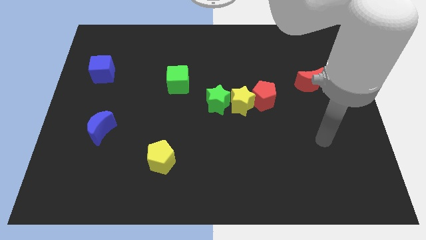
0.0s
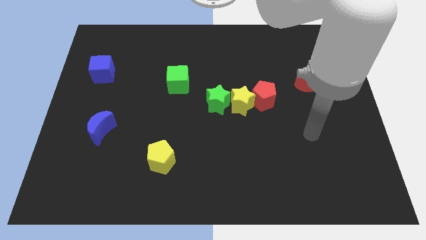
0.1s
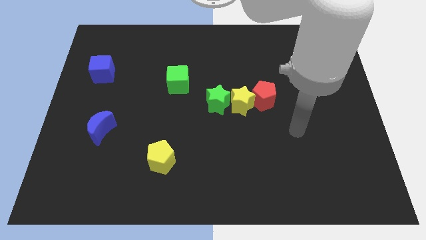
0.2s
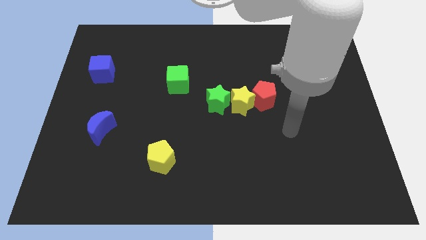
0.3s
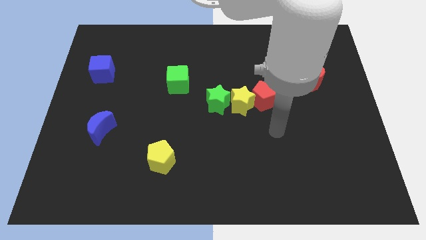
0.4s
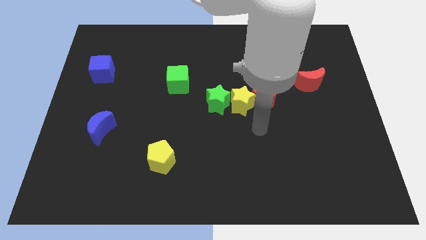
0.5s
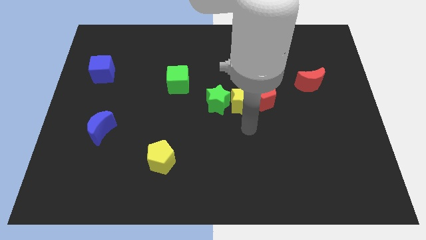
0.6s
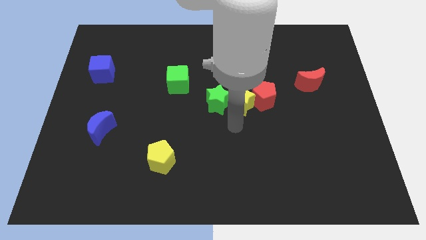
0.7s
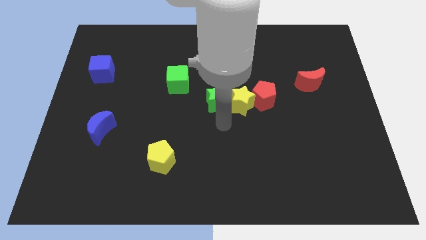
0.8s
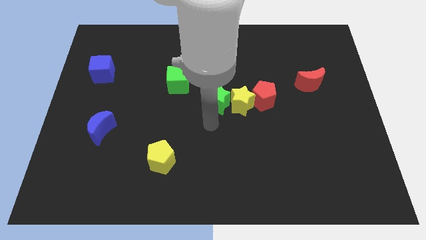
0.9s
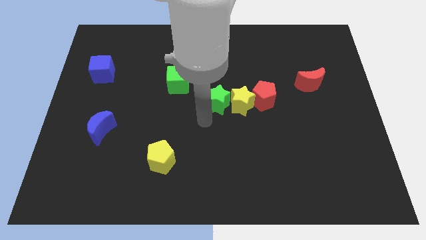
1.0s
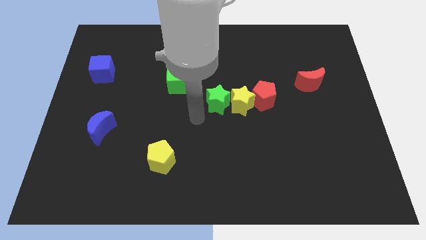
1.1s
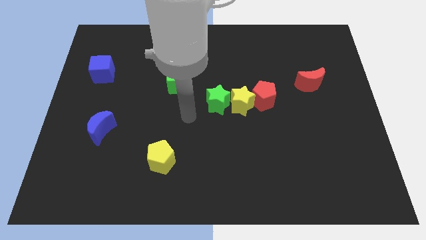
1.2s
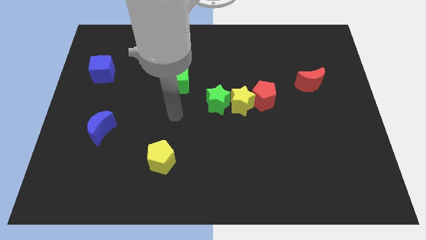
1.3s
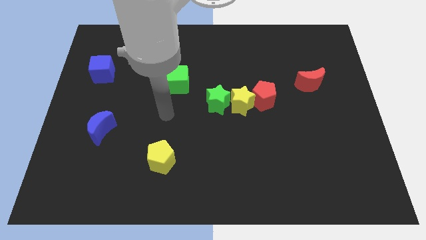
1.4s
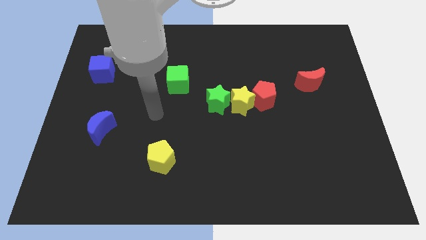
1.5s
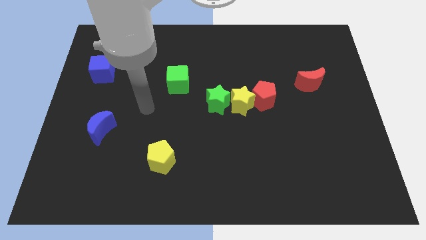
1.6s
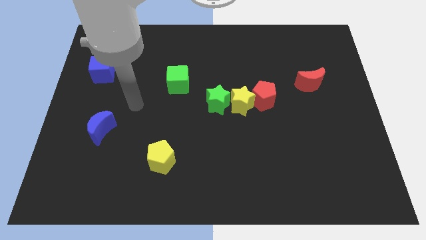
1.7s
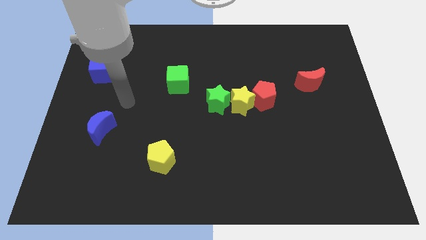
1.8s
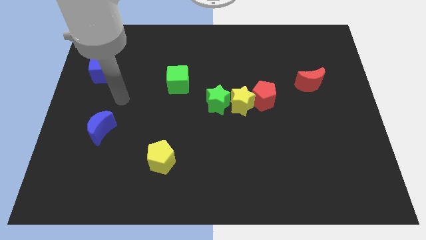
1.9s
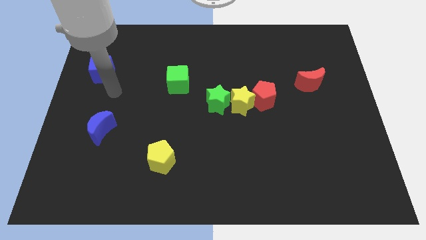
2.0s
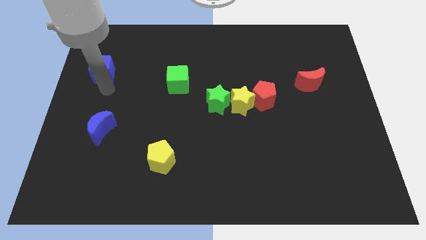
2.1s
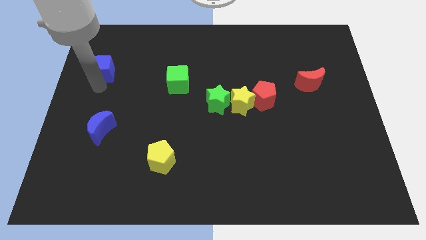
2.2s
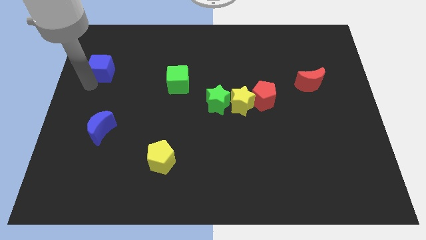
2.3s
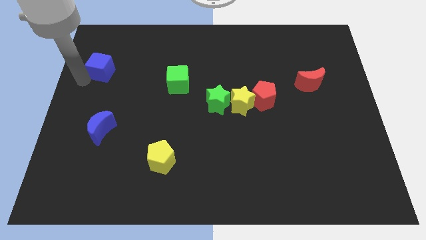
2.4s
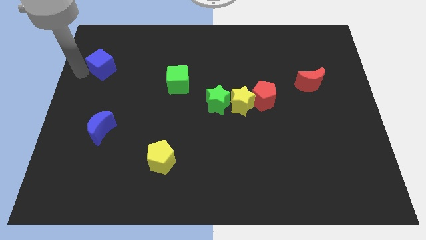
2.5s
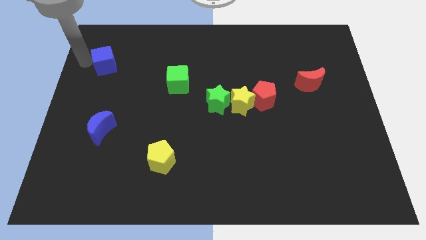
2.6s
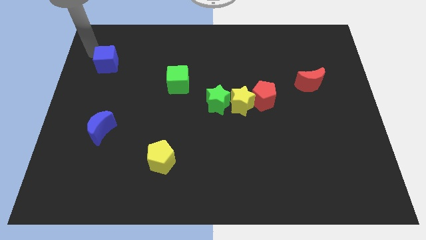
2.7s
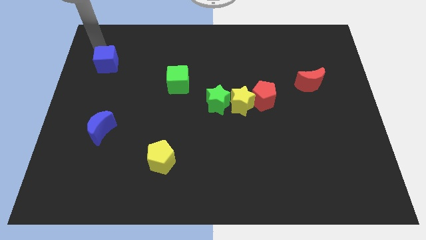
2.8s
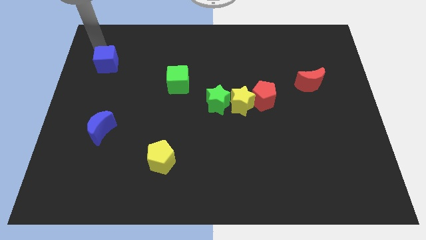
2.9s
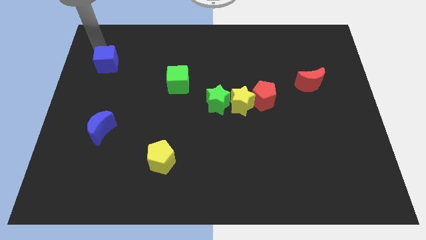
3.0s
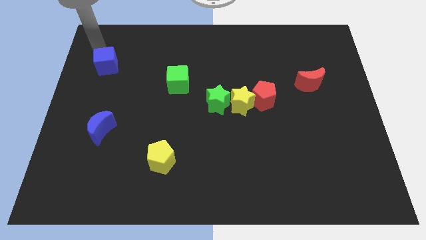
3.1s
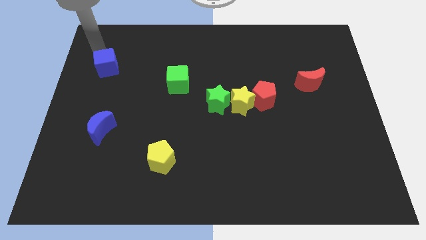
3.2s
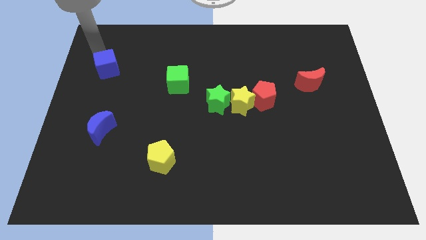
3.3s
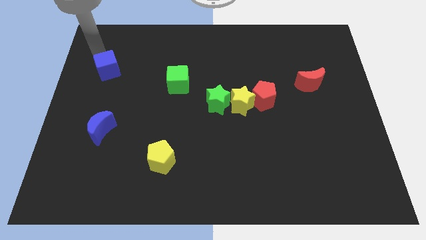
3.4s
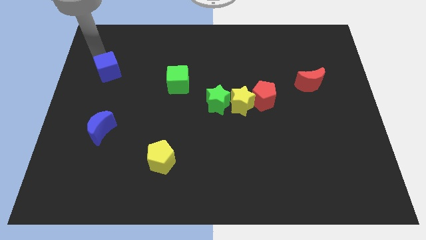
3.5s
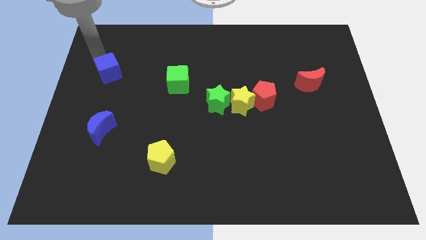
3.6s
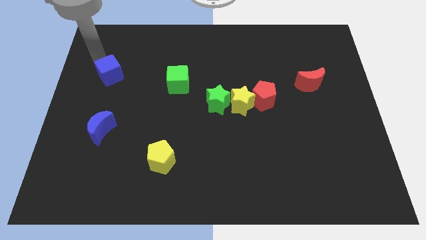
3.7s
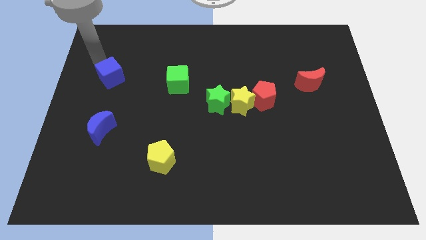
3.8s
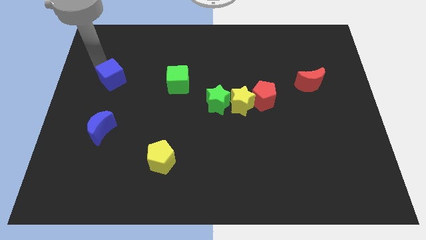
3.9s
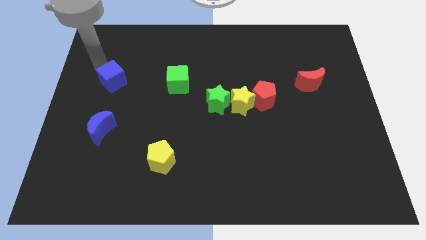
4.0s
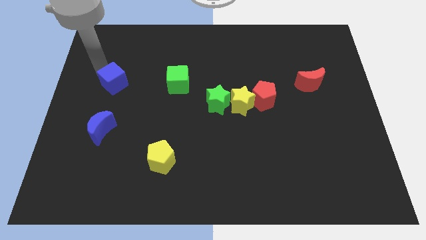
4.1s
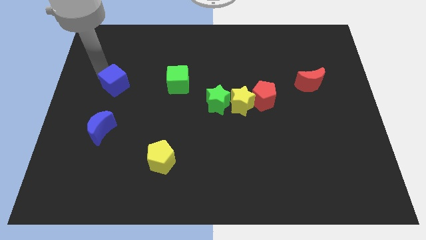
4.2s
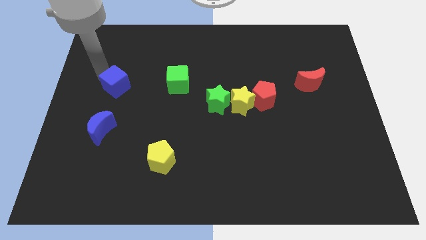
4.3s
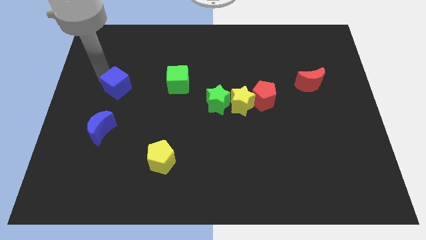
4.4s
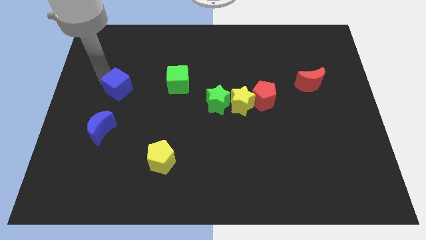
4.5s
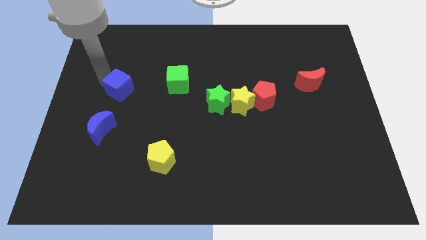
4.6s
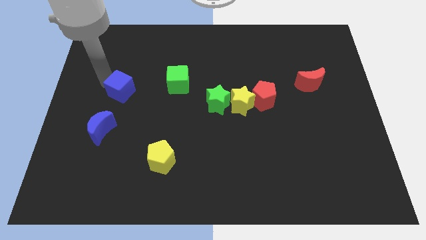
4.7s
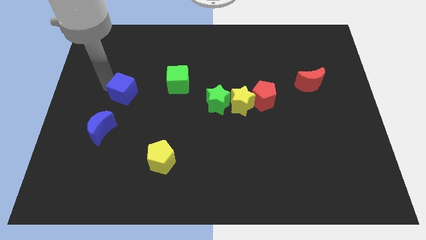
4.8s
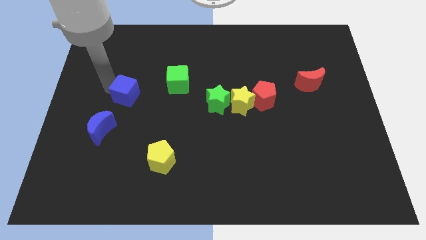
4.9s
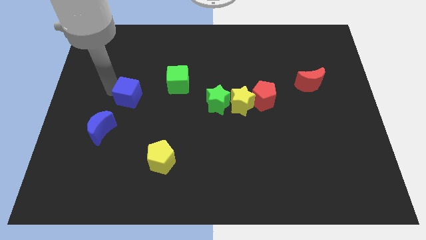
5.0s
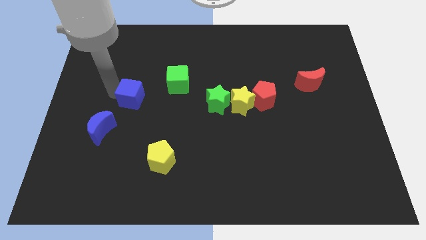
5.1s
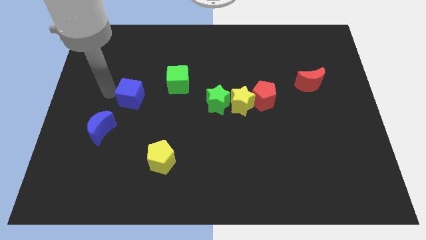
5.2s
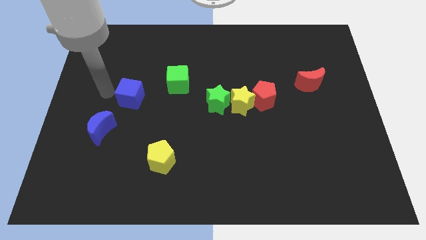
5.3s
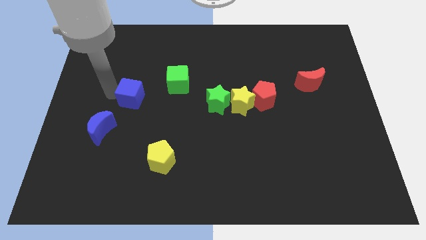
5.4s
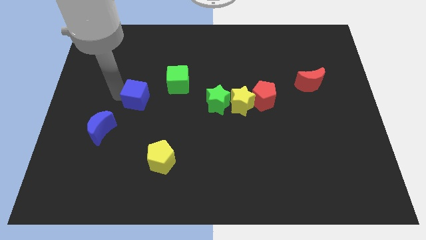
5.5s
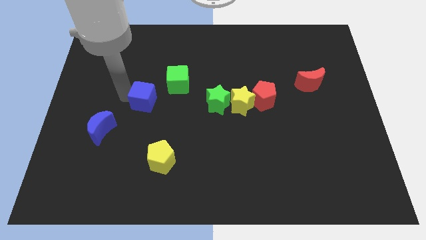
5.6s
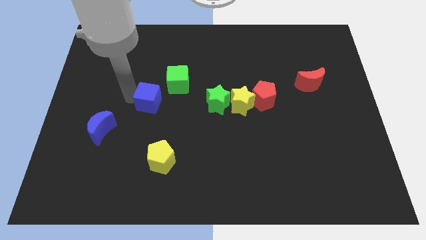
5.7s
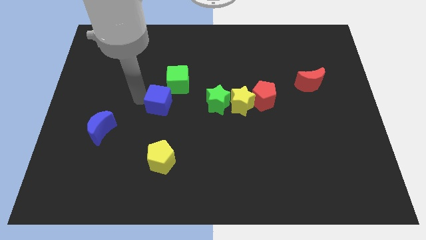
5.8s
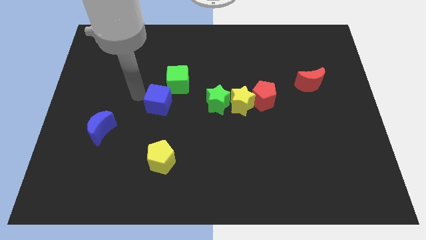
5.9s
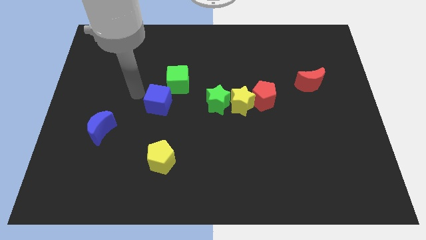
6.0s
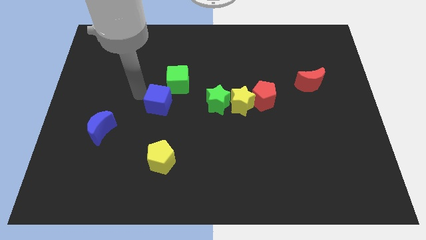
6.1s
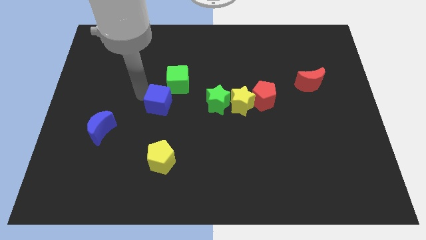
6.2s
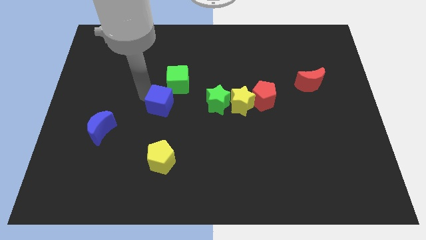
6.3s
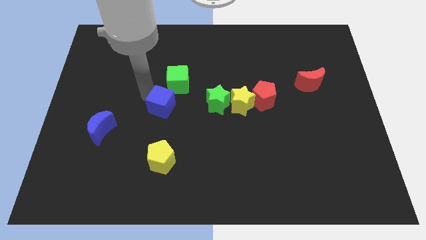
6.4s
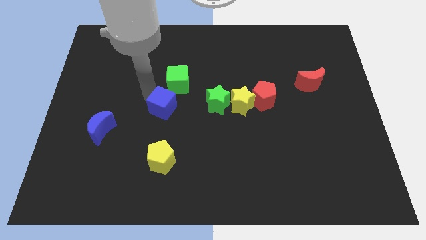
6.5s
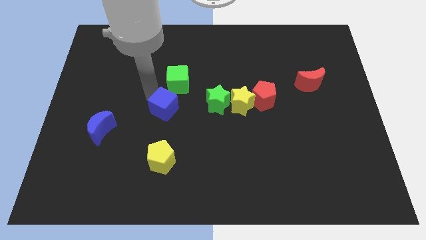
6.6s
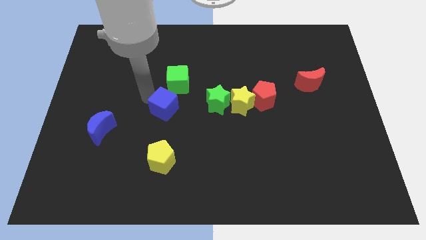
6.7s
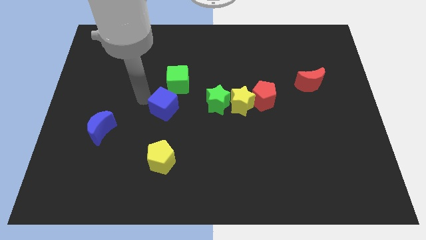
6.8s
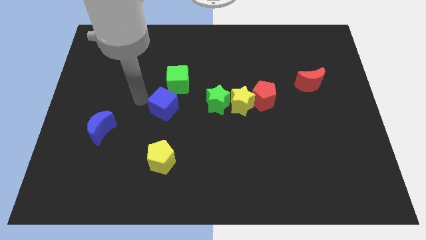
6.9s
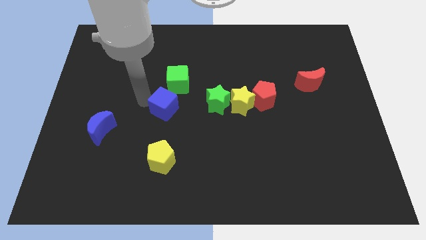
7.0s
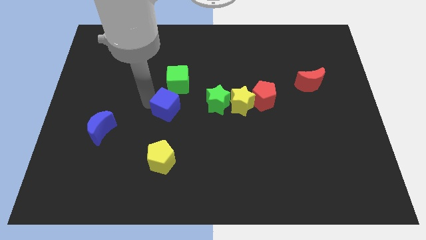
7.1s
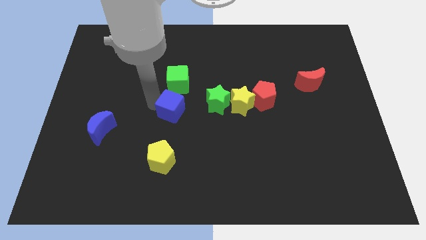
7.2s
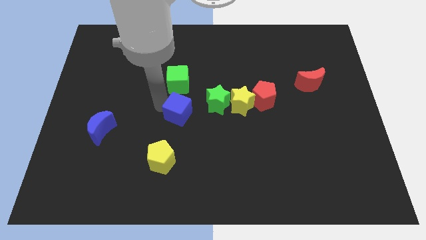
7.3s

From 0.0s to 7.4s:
slide the blue cube to the bottom left of the green star
